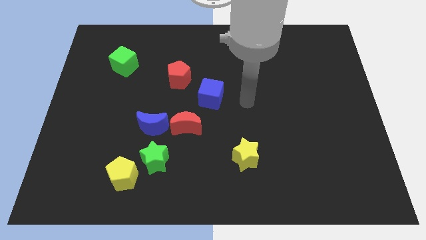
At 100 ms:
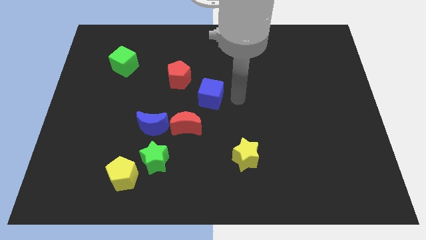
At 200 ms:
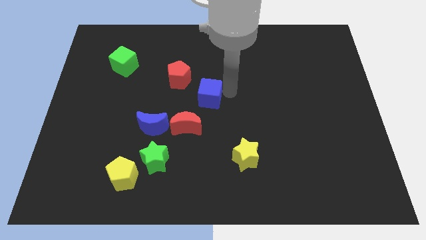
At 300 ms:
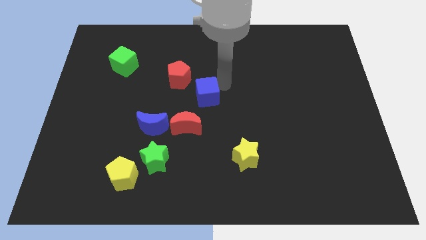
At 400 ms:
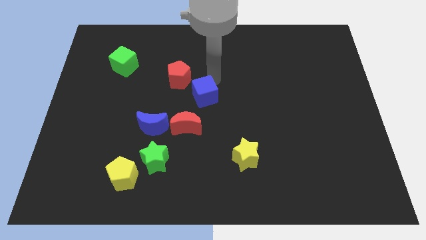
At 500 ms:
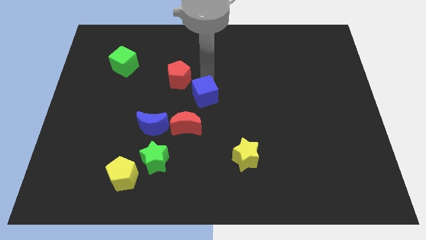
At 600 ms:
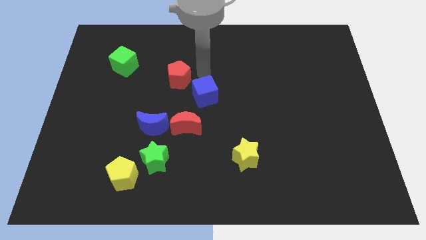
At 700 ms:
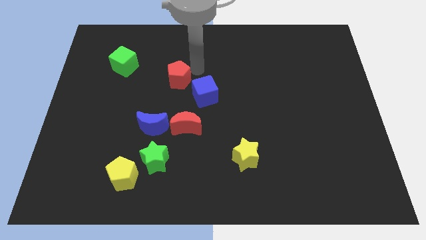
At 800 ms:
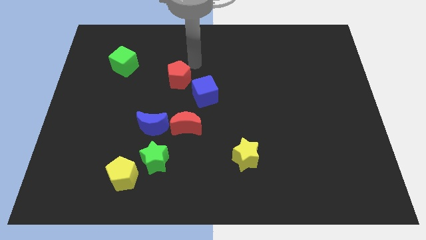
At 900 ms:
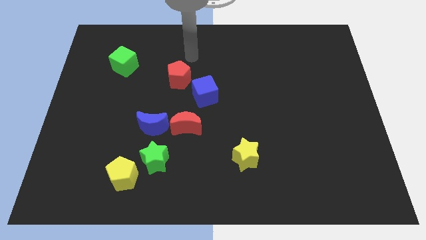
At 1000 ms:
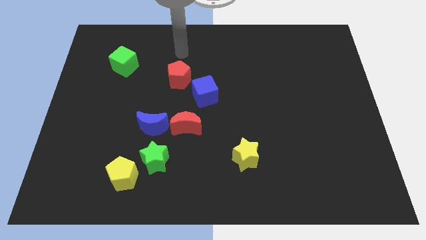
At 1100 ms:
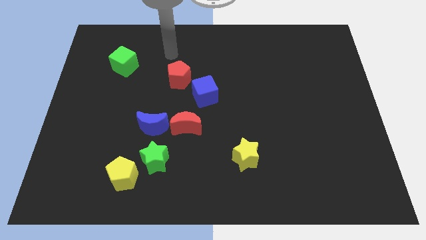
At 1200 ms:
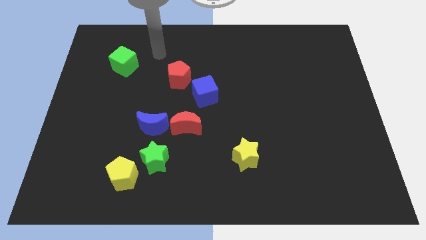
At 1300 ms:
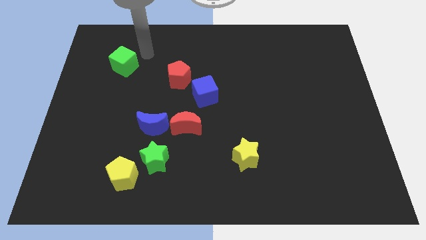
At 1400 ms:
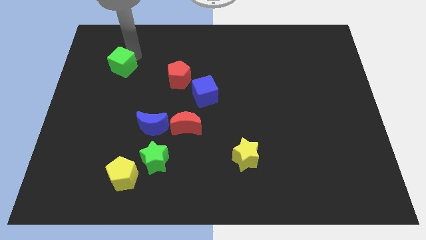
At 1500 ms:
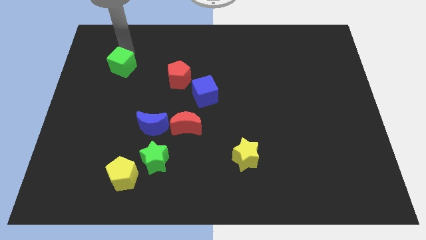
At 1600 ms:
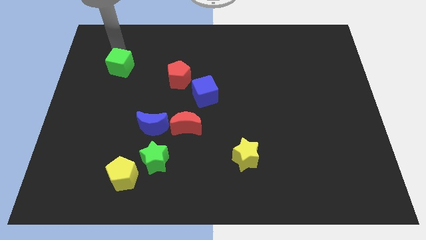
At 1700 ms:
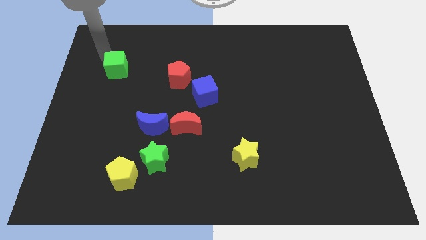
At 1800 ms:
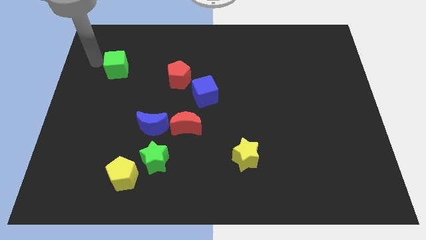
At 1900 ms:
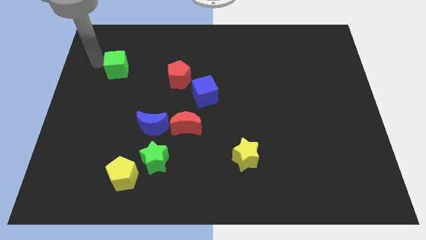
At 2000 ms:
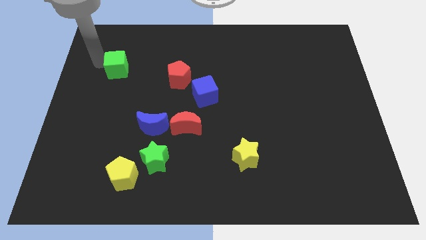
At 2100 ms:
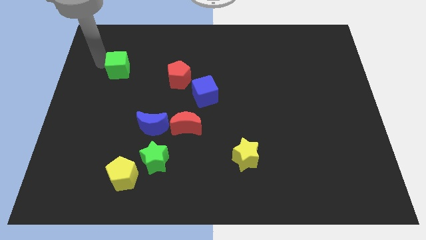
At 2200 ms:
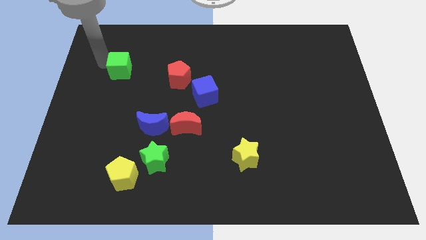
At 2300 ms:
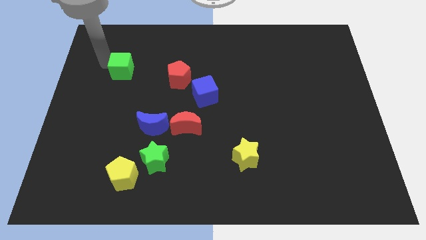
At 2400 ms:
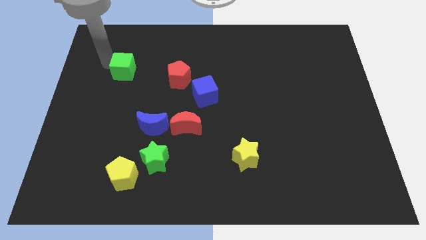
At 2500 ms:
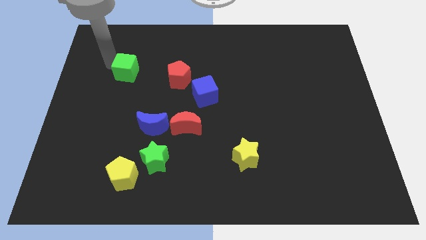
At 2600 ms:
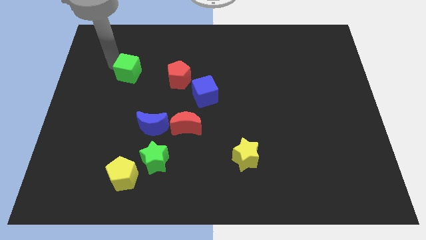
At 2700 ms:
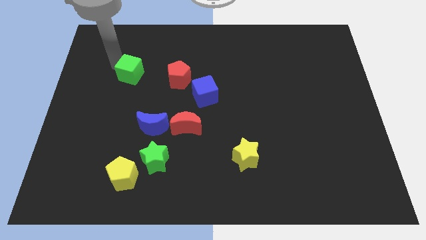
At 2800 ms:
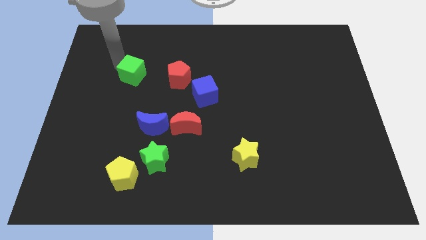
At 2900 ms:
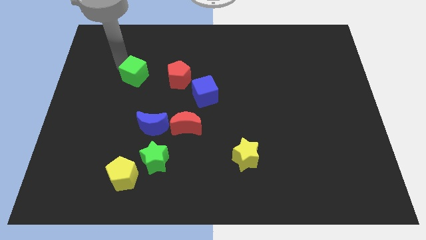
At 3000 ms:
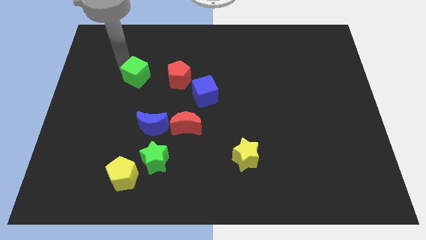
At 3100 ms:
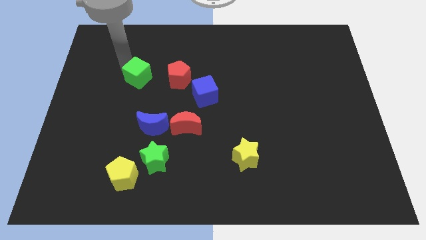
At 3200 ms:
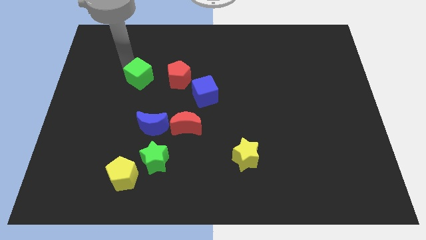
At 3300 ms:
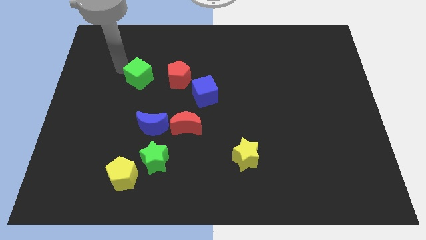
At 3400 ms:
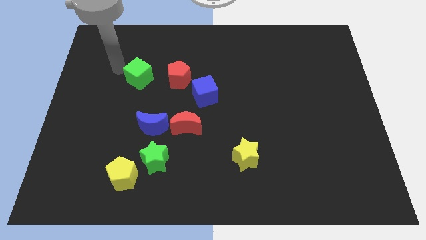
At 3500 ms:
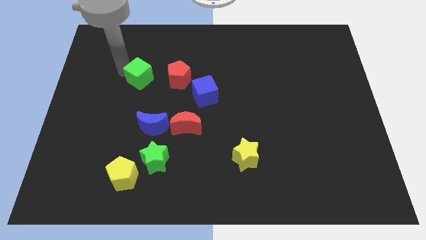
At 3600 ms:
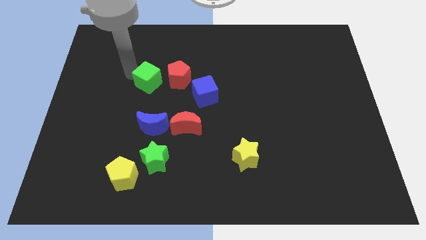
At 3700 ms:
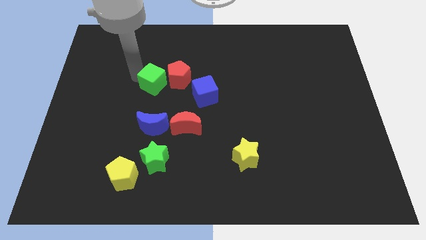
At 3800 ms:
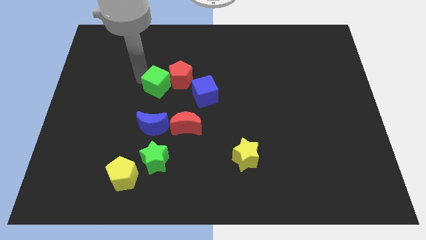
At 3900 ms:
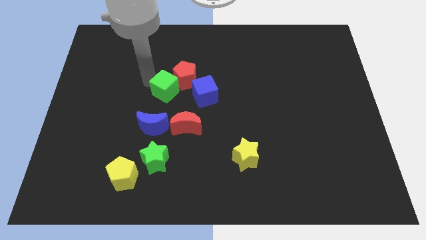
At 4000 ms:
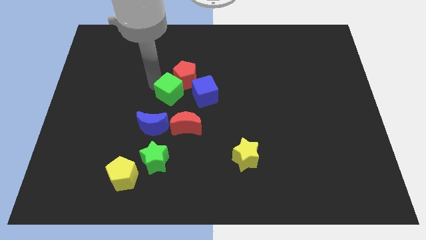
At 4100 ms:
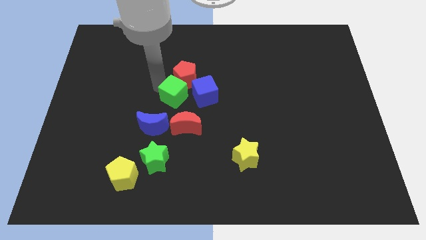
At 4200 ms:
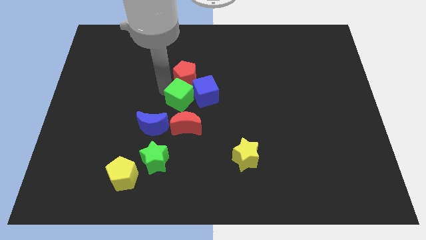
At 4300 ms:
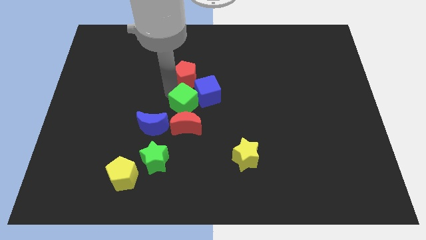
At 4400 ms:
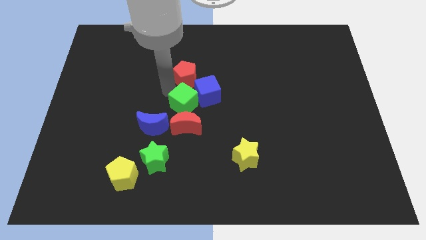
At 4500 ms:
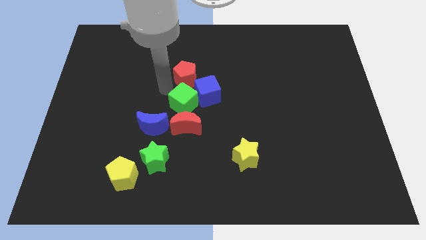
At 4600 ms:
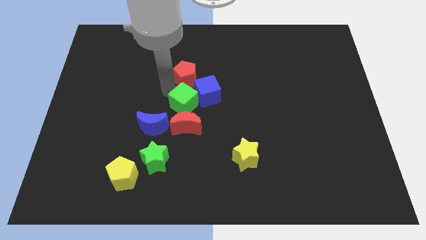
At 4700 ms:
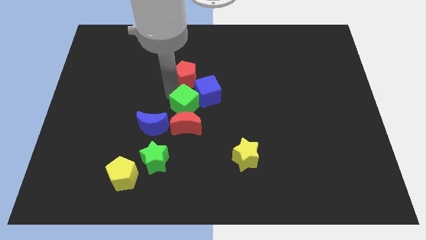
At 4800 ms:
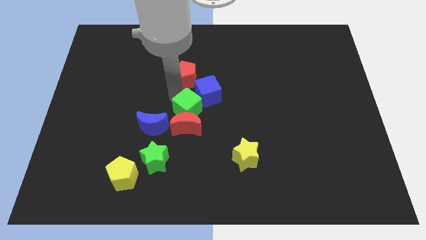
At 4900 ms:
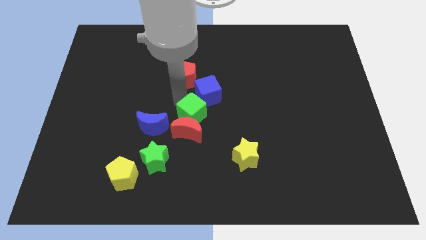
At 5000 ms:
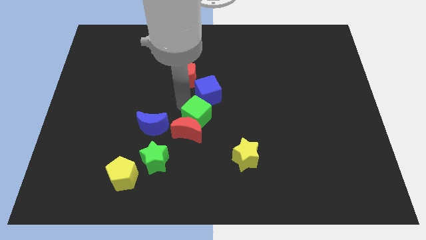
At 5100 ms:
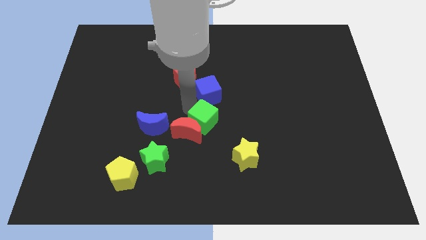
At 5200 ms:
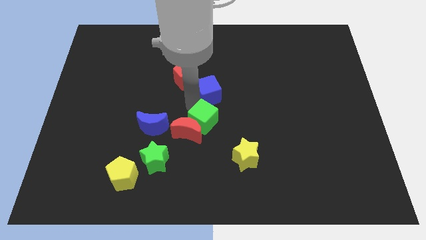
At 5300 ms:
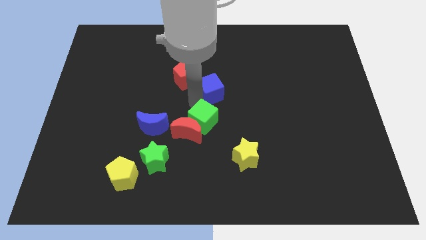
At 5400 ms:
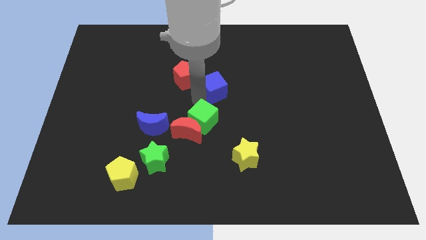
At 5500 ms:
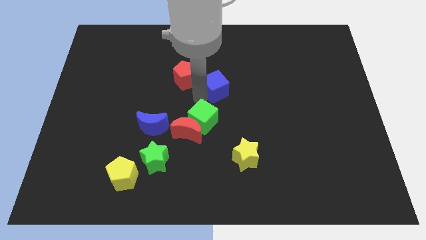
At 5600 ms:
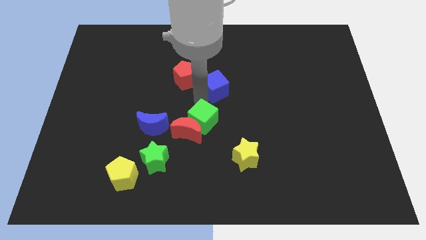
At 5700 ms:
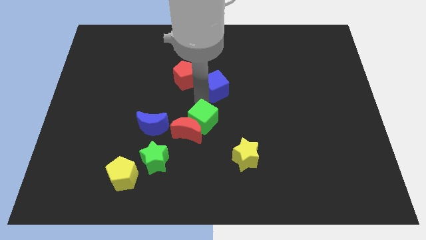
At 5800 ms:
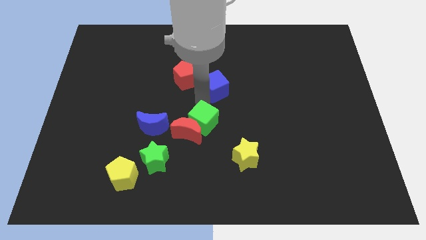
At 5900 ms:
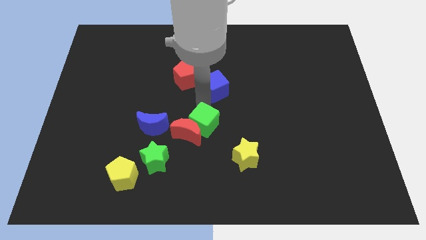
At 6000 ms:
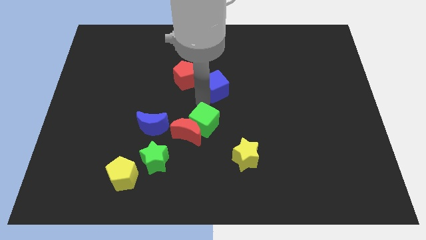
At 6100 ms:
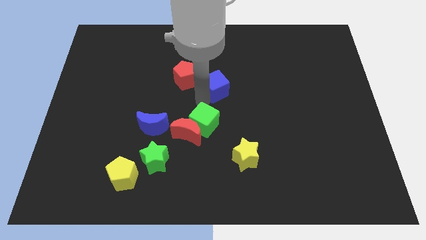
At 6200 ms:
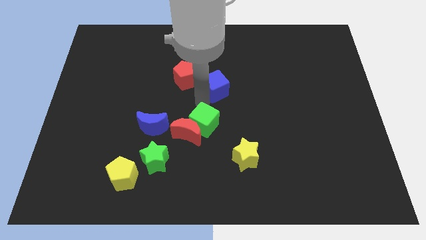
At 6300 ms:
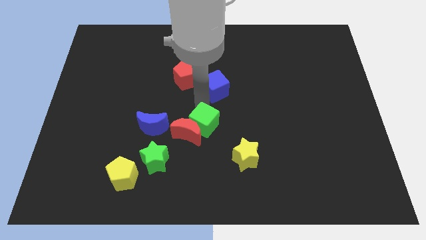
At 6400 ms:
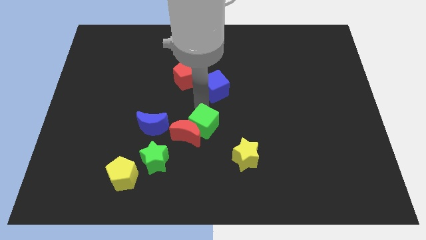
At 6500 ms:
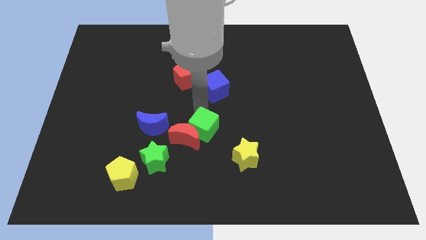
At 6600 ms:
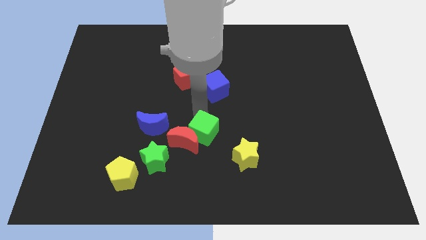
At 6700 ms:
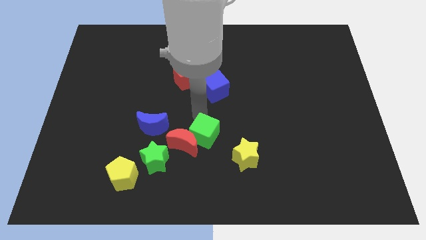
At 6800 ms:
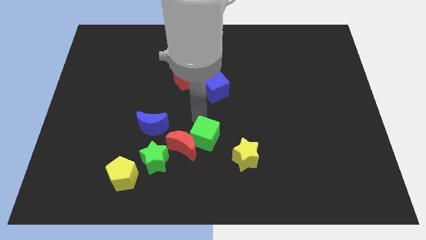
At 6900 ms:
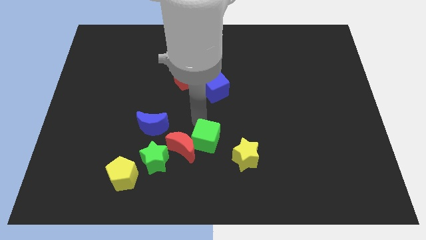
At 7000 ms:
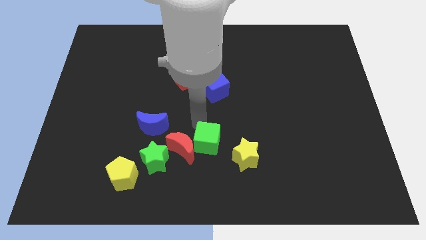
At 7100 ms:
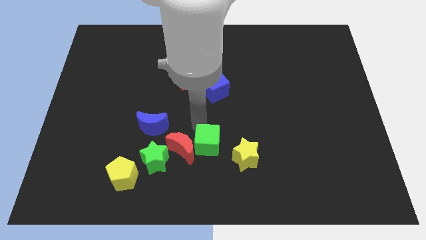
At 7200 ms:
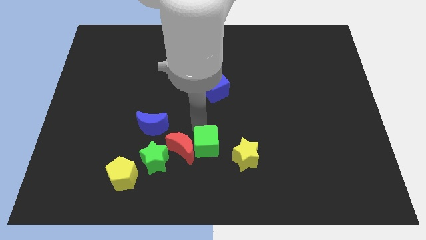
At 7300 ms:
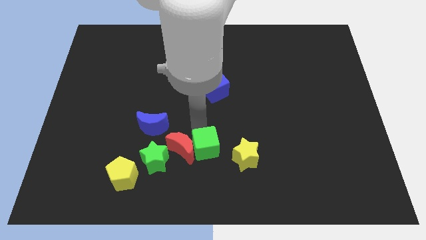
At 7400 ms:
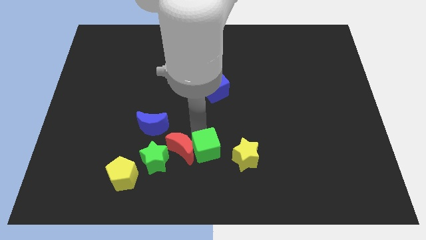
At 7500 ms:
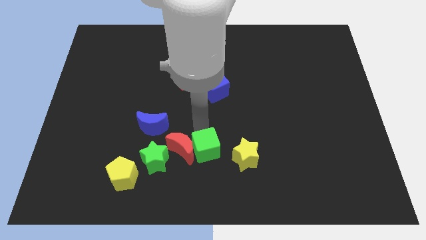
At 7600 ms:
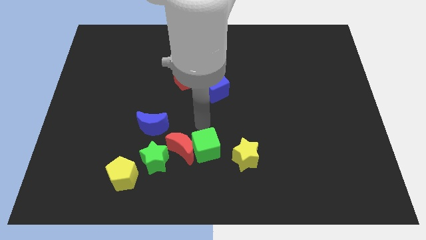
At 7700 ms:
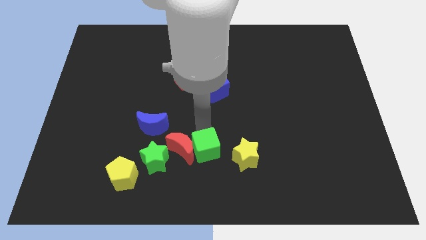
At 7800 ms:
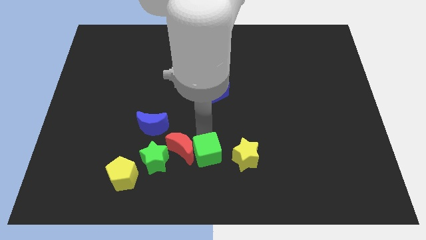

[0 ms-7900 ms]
push the green cube to the bottom
